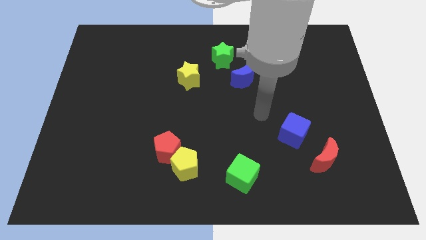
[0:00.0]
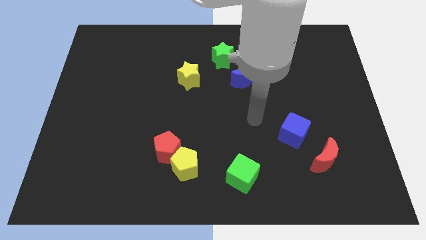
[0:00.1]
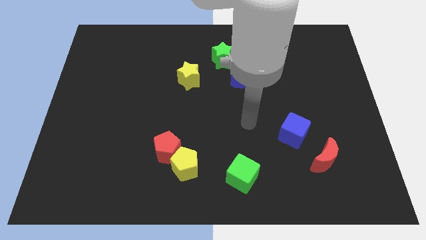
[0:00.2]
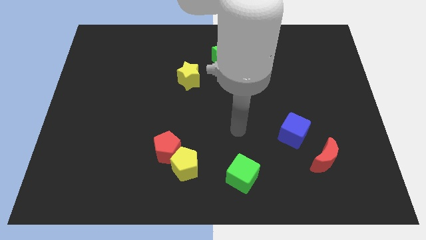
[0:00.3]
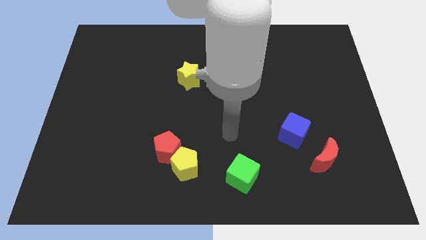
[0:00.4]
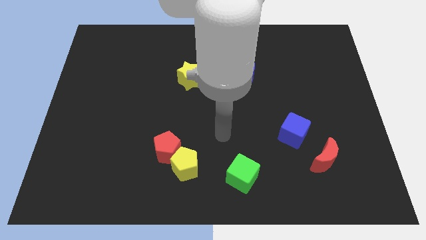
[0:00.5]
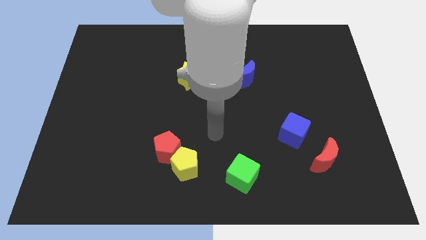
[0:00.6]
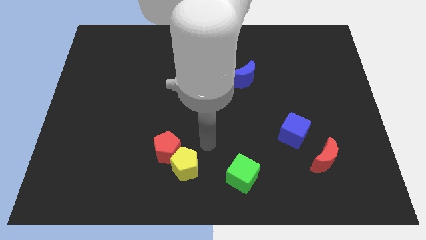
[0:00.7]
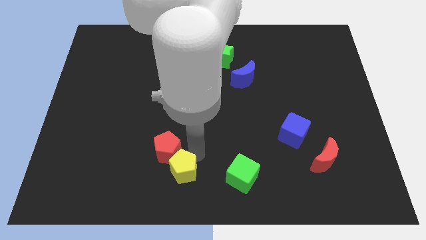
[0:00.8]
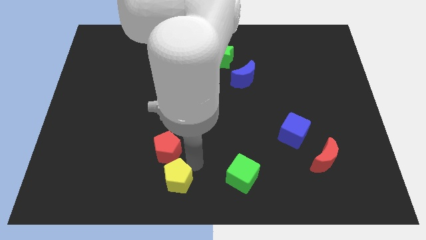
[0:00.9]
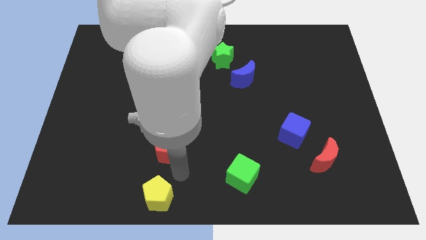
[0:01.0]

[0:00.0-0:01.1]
move the red pentagon away from the yellow pentagon

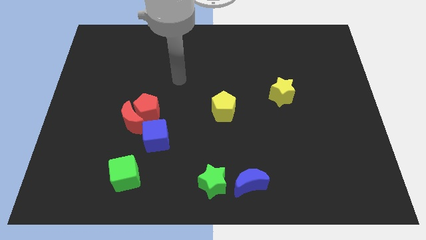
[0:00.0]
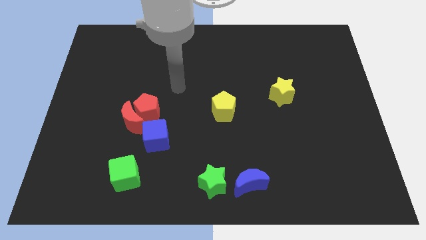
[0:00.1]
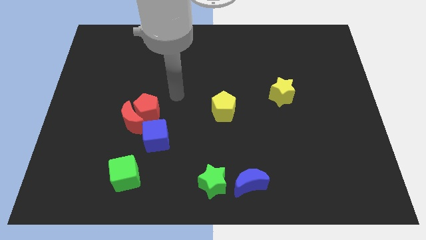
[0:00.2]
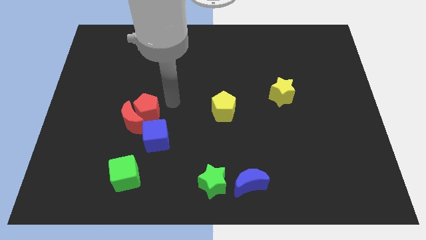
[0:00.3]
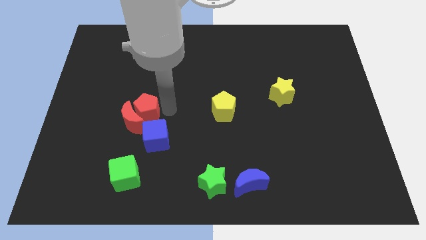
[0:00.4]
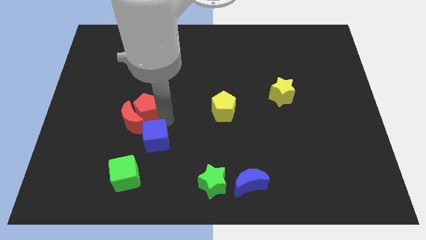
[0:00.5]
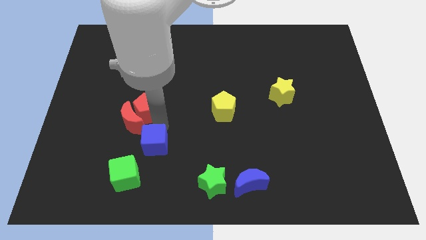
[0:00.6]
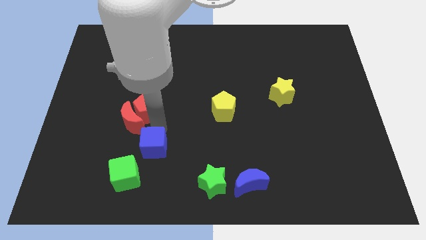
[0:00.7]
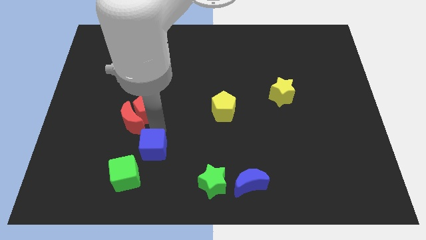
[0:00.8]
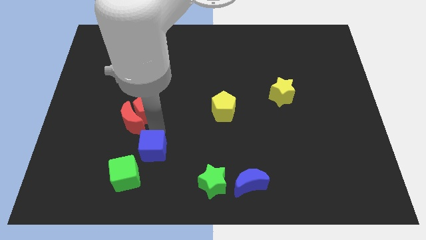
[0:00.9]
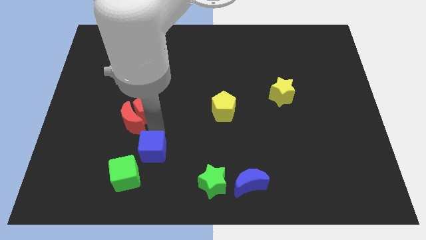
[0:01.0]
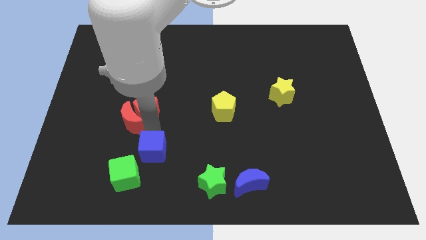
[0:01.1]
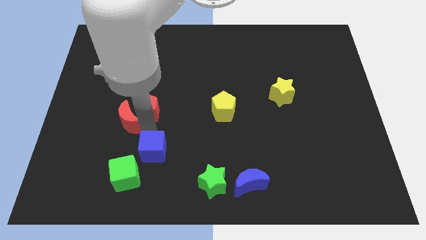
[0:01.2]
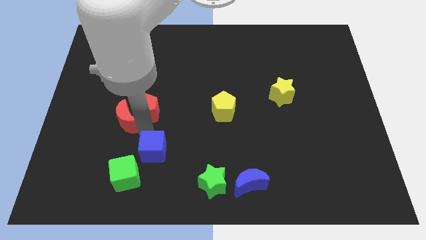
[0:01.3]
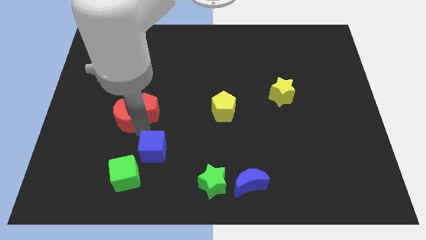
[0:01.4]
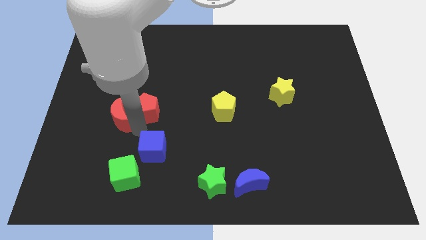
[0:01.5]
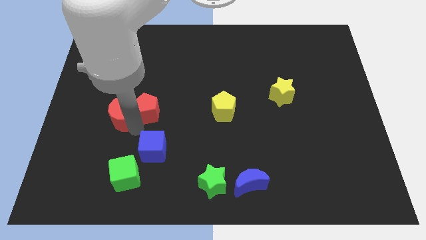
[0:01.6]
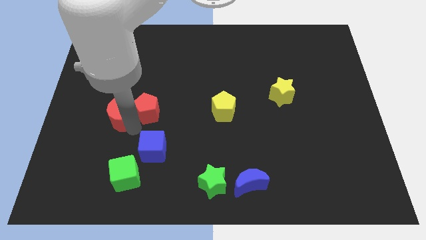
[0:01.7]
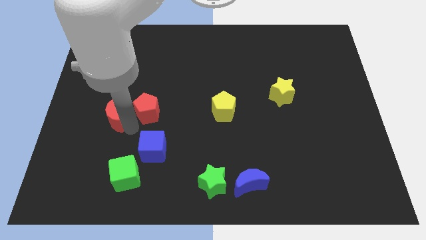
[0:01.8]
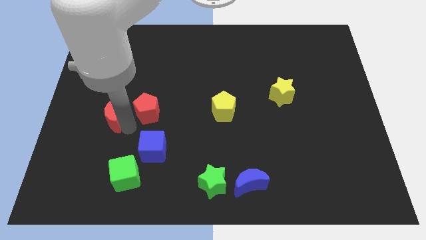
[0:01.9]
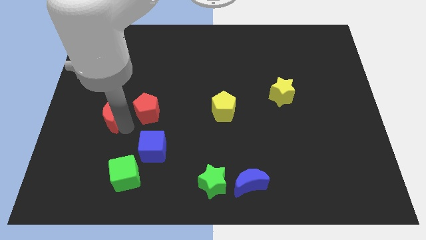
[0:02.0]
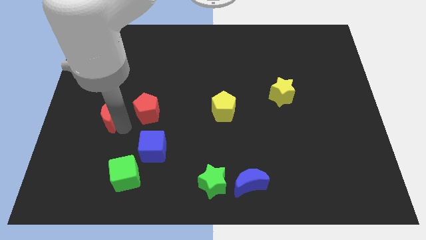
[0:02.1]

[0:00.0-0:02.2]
pull the red moon apart from the red pentagon and blue cube

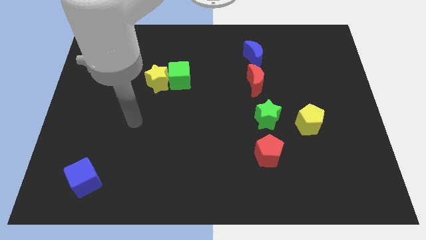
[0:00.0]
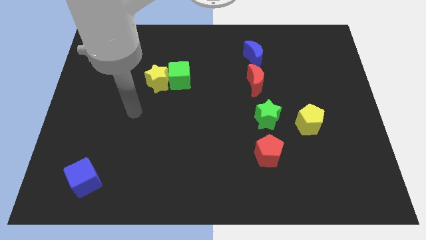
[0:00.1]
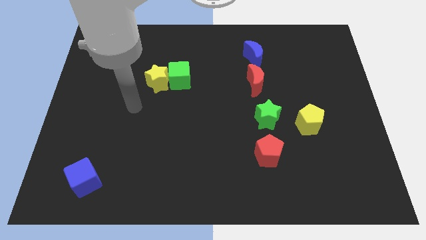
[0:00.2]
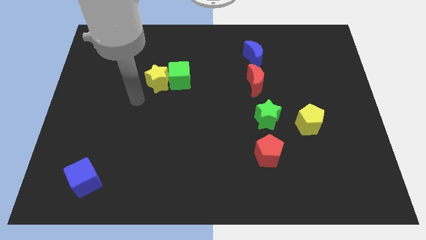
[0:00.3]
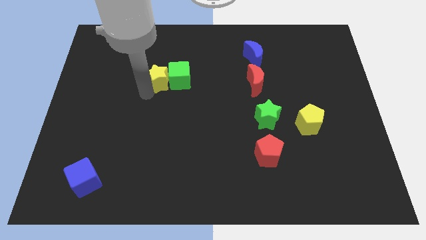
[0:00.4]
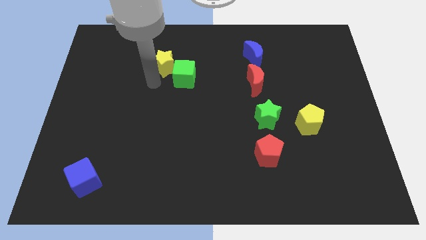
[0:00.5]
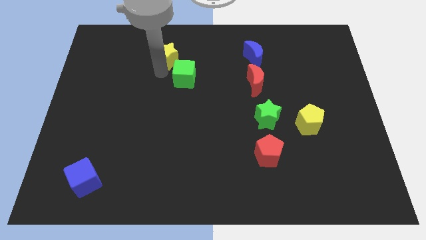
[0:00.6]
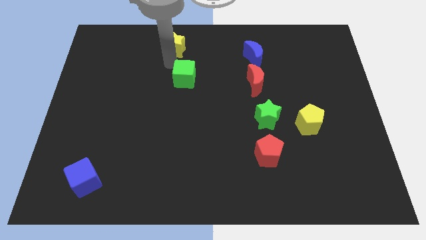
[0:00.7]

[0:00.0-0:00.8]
separate the green cube from the yellow star

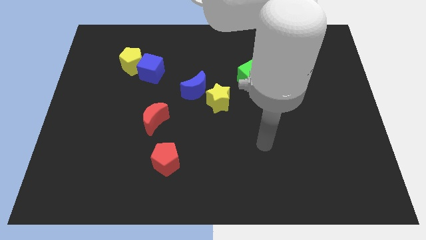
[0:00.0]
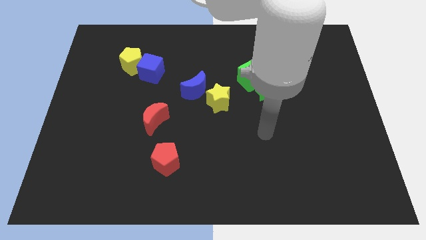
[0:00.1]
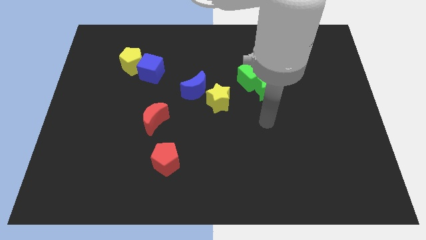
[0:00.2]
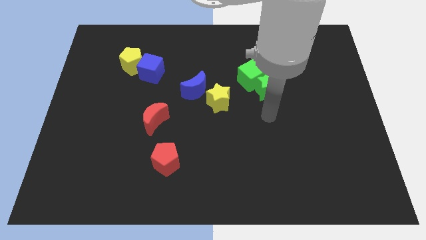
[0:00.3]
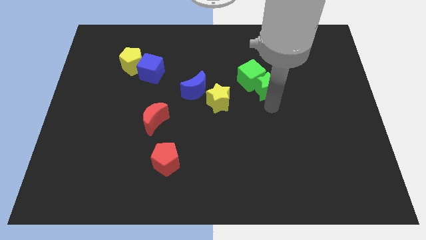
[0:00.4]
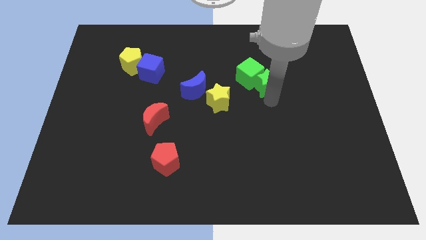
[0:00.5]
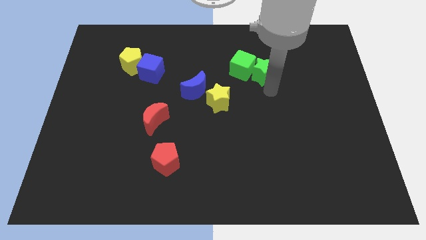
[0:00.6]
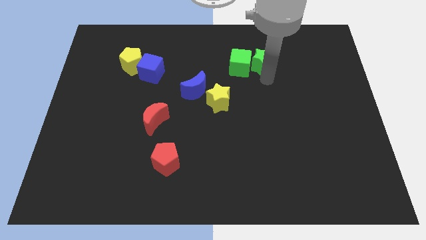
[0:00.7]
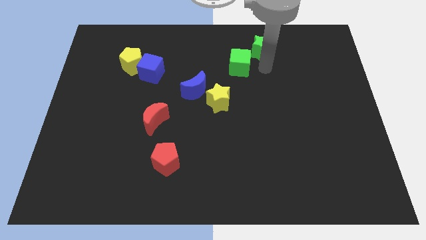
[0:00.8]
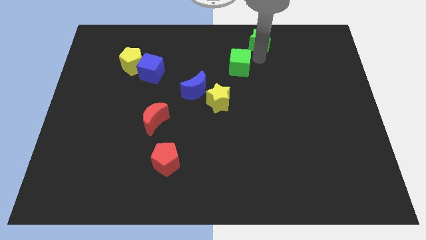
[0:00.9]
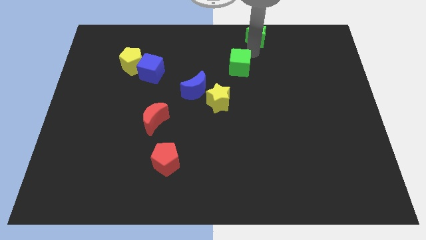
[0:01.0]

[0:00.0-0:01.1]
separate the green cube from the green star

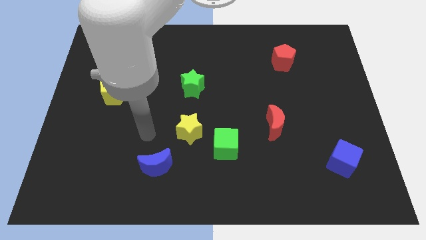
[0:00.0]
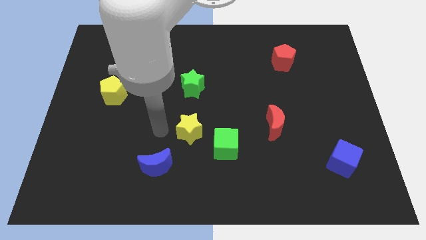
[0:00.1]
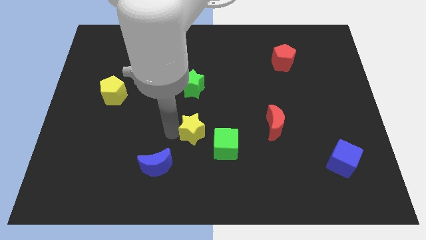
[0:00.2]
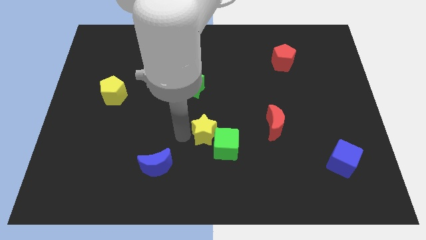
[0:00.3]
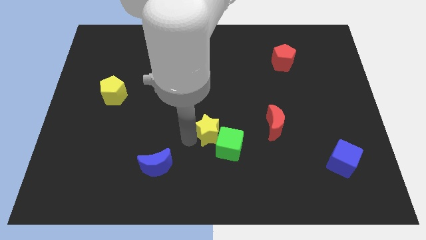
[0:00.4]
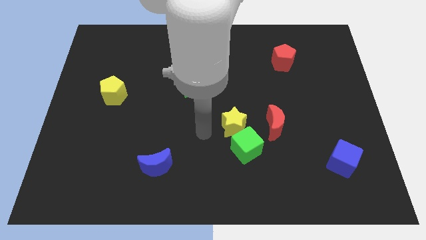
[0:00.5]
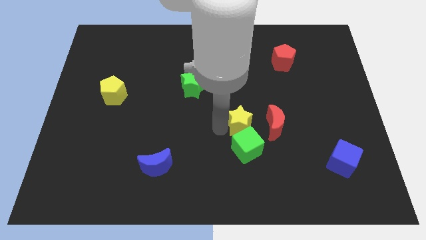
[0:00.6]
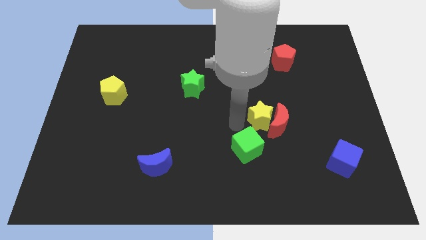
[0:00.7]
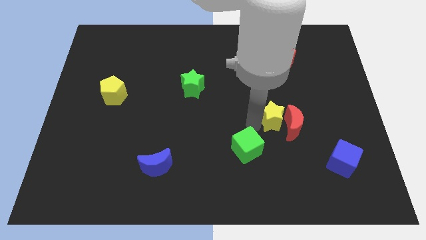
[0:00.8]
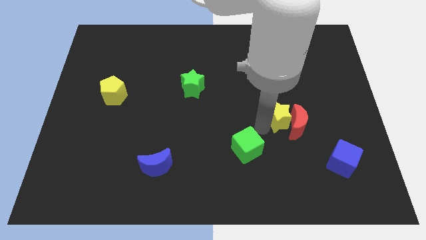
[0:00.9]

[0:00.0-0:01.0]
pull the green cube apart from the yellow star

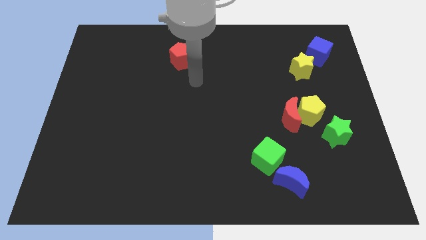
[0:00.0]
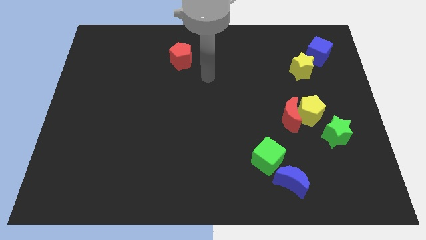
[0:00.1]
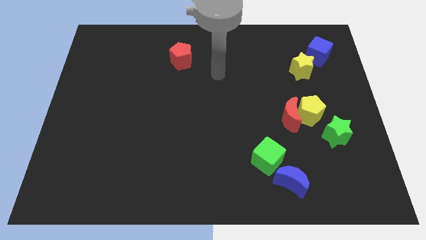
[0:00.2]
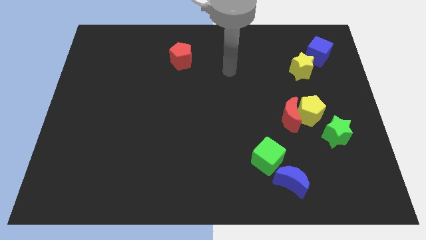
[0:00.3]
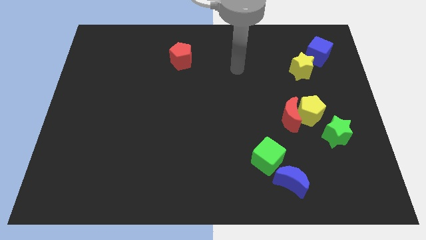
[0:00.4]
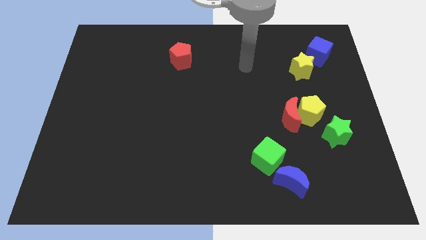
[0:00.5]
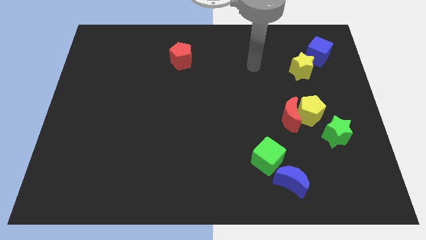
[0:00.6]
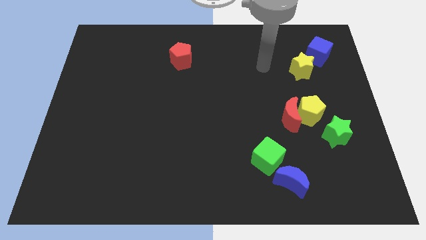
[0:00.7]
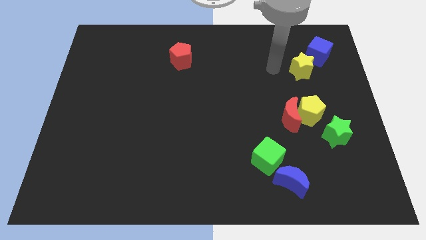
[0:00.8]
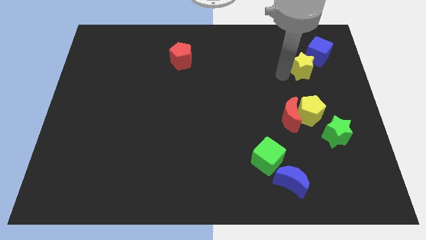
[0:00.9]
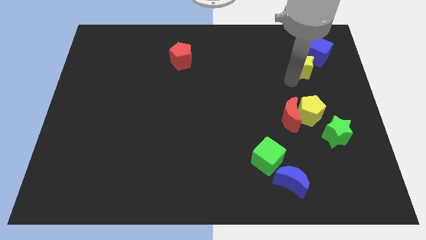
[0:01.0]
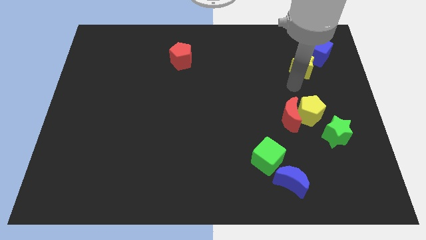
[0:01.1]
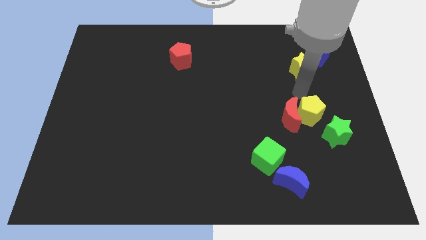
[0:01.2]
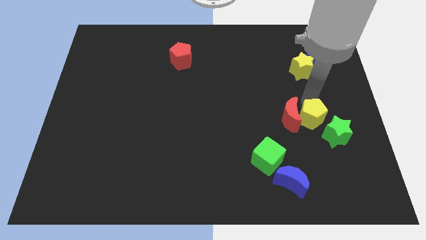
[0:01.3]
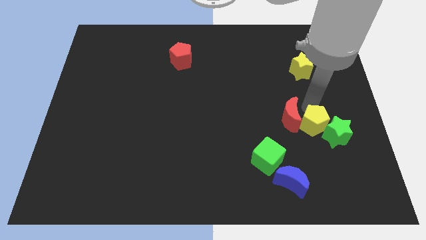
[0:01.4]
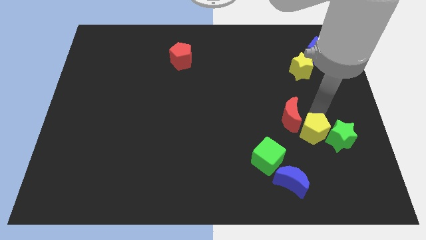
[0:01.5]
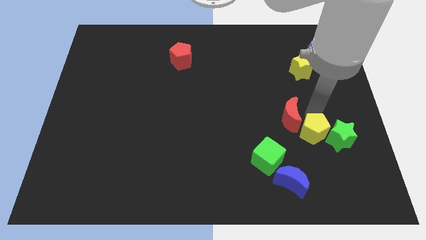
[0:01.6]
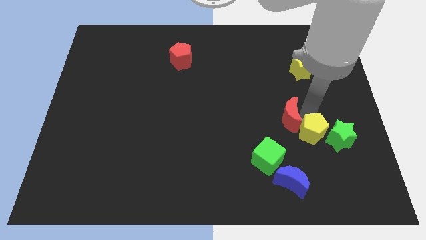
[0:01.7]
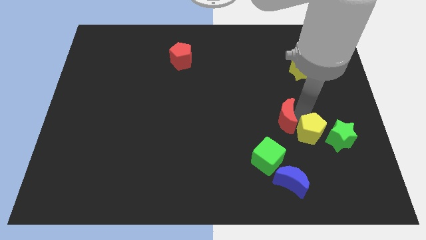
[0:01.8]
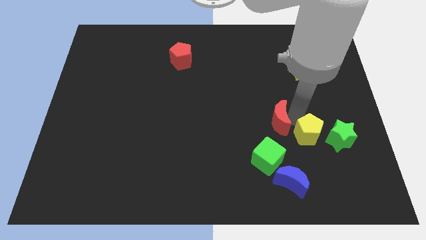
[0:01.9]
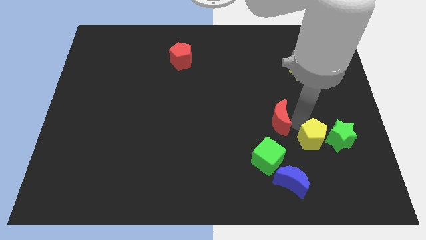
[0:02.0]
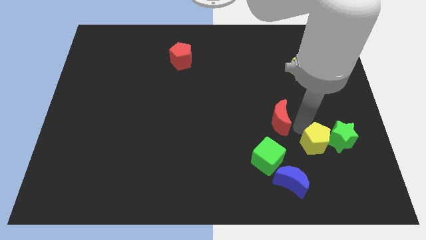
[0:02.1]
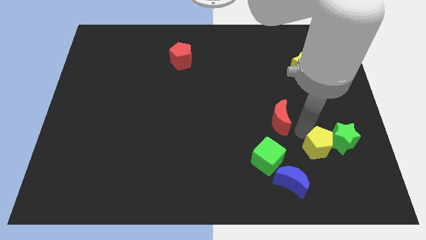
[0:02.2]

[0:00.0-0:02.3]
move the red moon away from the yellow pentagon

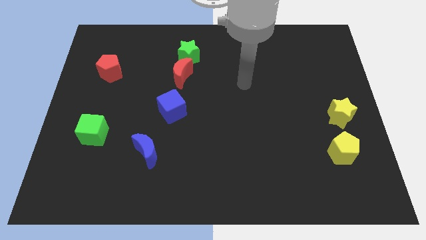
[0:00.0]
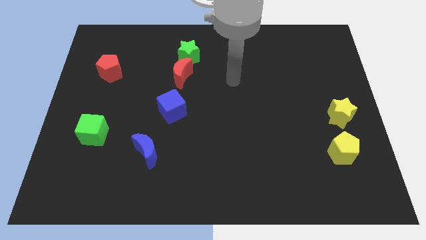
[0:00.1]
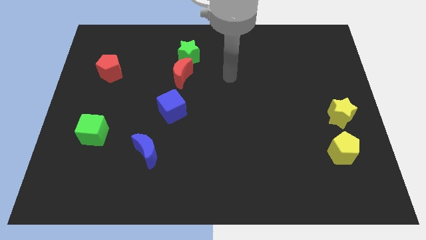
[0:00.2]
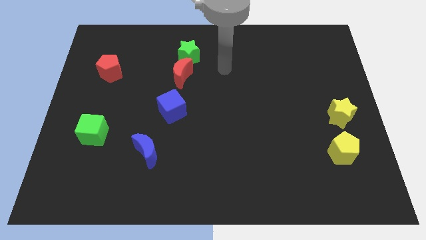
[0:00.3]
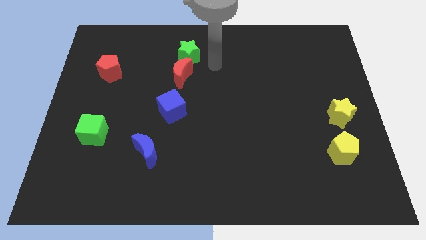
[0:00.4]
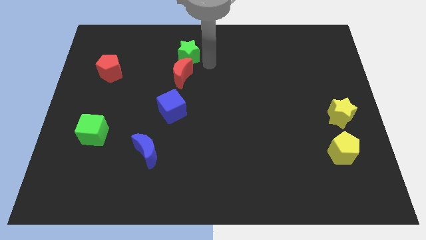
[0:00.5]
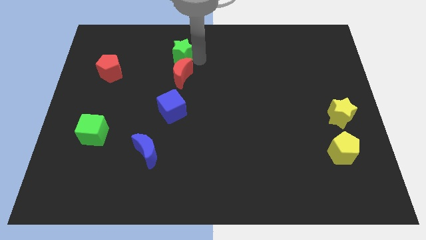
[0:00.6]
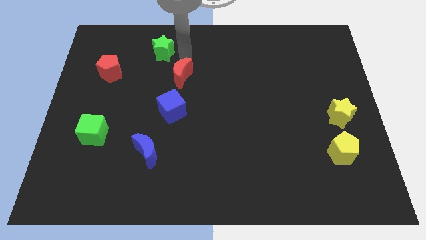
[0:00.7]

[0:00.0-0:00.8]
move the red moon away from the green star
